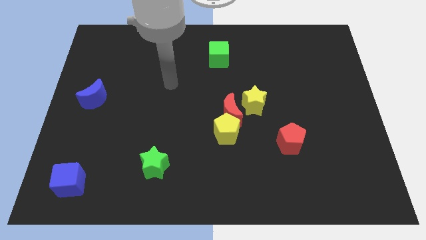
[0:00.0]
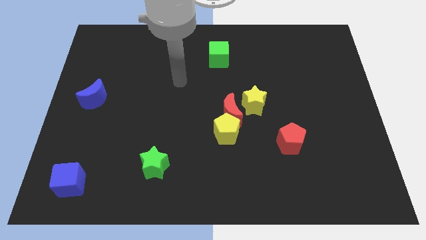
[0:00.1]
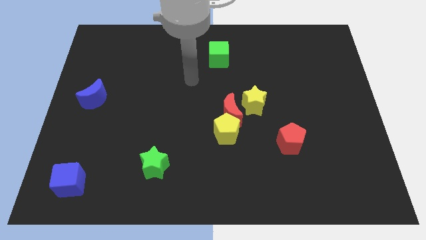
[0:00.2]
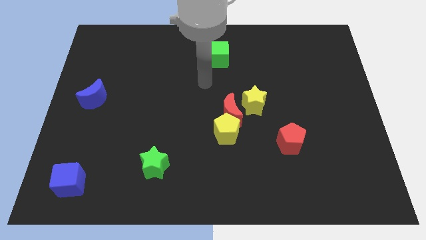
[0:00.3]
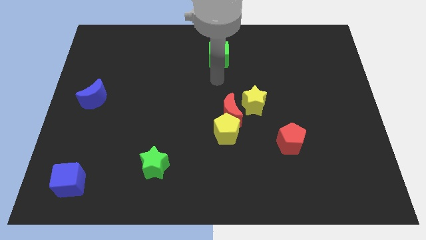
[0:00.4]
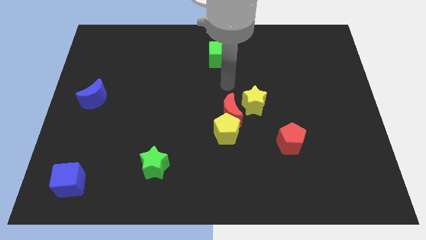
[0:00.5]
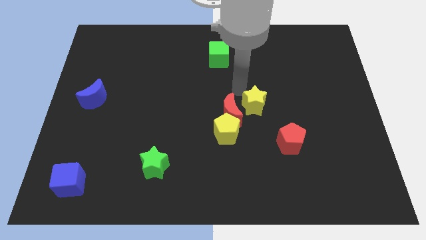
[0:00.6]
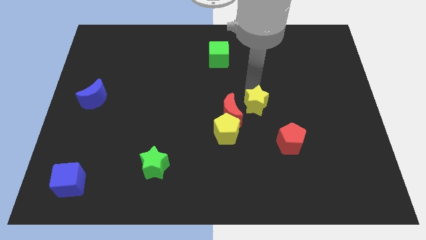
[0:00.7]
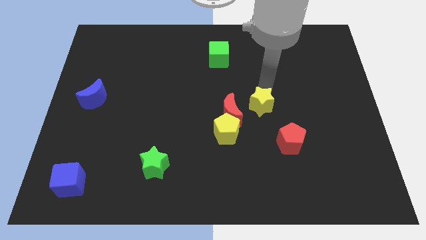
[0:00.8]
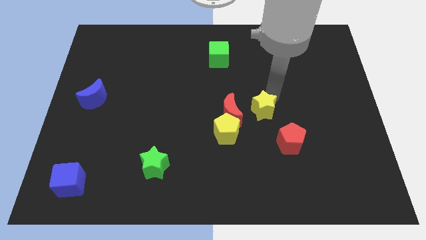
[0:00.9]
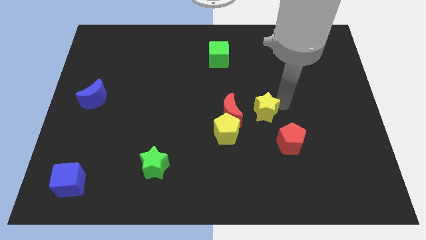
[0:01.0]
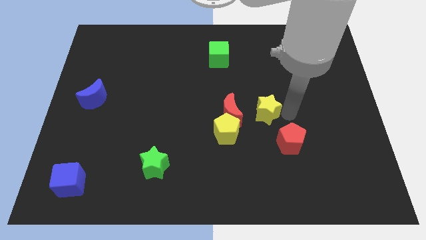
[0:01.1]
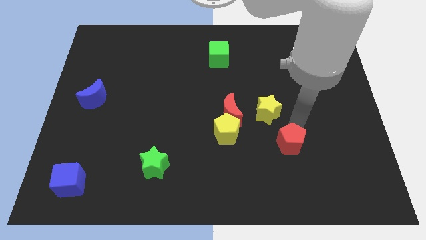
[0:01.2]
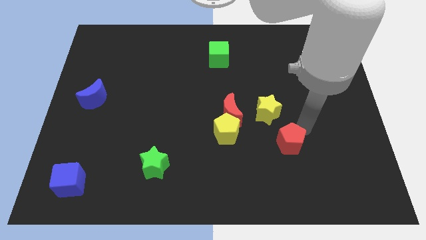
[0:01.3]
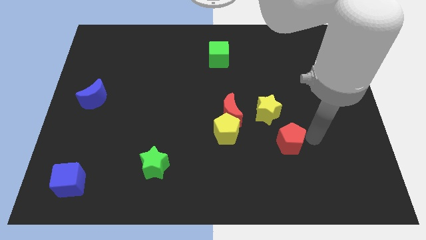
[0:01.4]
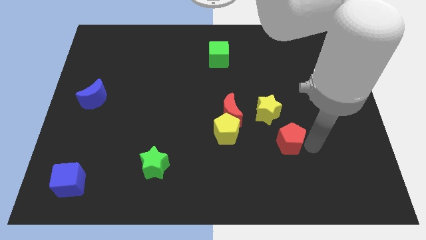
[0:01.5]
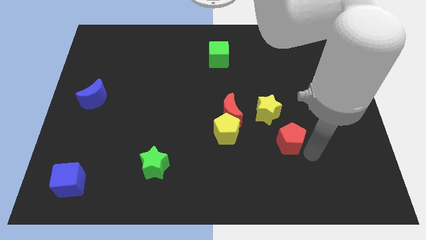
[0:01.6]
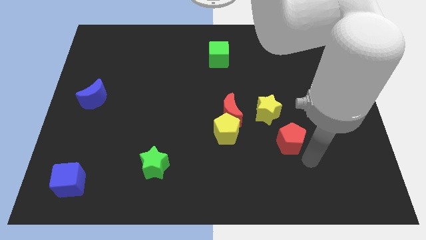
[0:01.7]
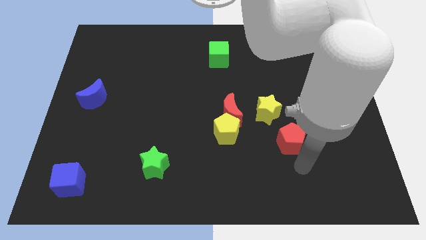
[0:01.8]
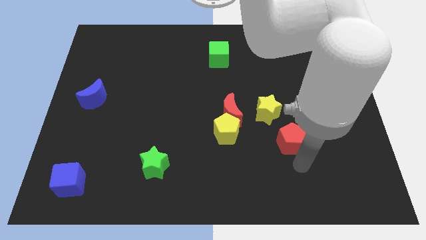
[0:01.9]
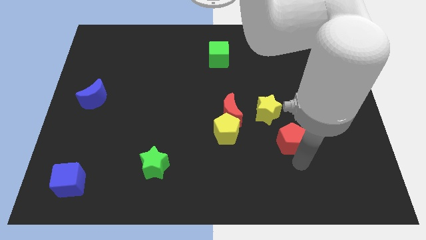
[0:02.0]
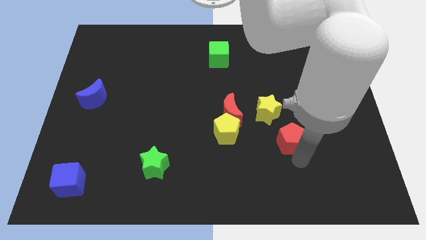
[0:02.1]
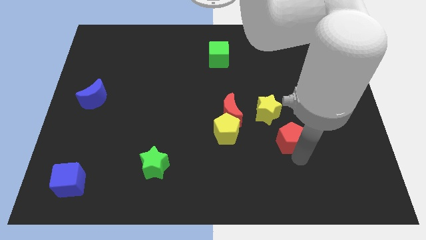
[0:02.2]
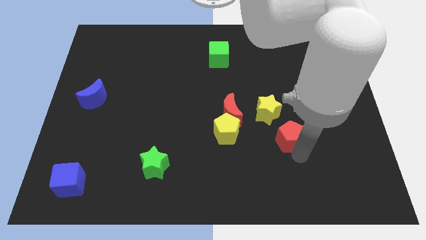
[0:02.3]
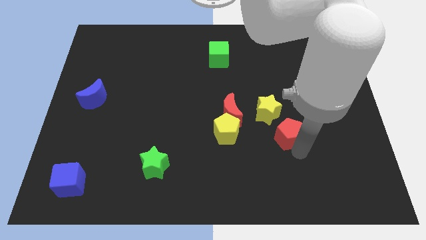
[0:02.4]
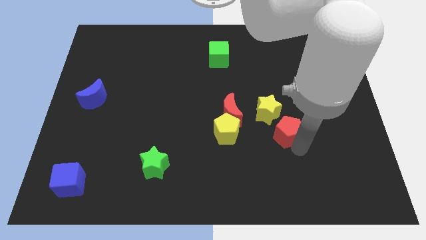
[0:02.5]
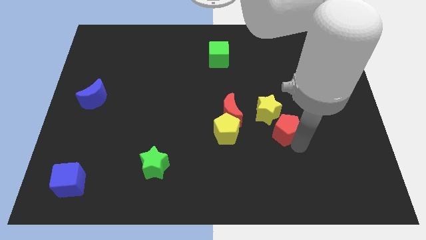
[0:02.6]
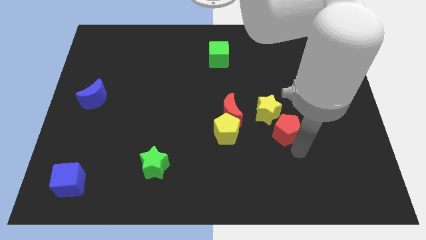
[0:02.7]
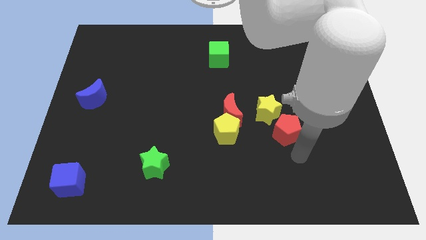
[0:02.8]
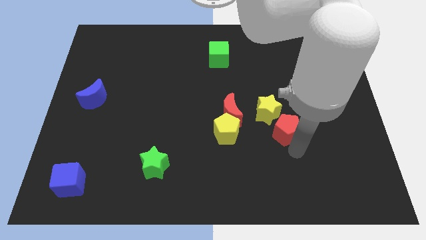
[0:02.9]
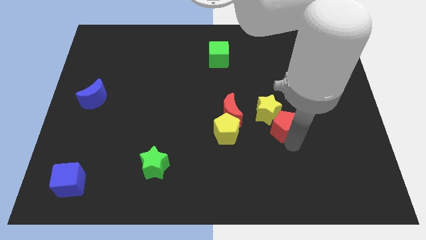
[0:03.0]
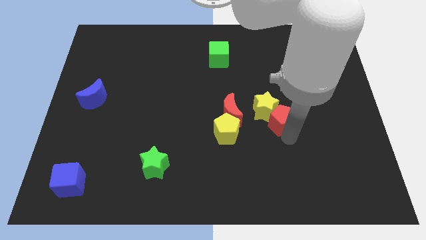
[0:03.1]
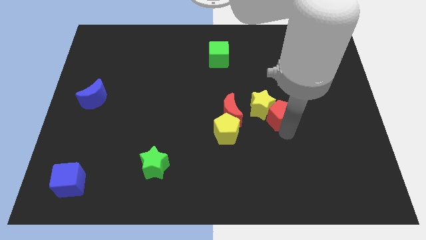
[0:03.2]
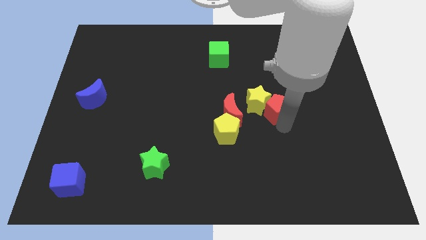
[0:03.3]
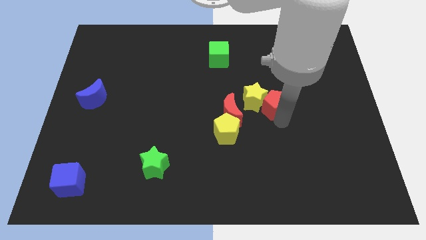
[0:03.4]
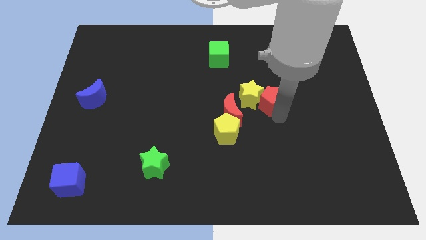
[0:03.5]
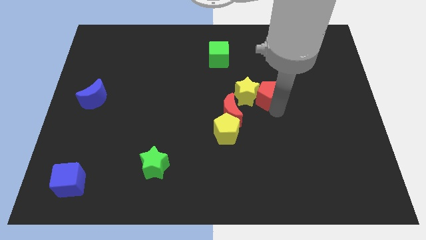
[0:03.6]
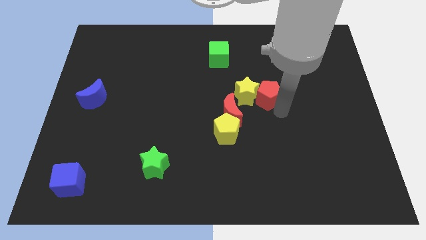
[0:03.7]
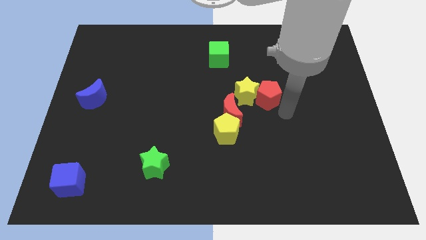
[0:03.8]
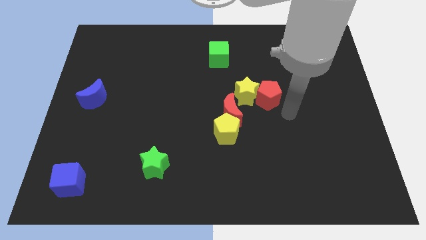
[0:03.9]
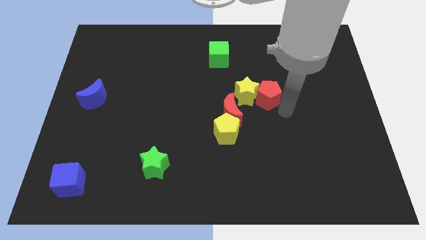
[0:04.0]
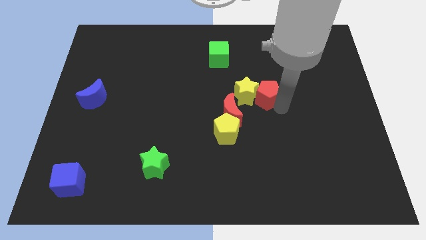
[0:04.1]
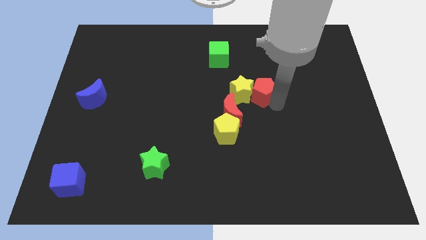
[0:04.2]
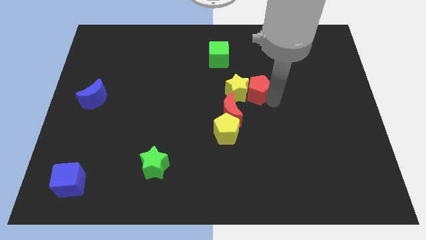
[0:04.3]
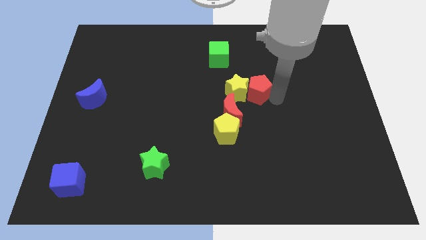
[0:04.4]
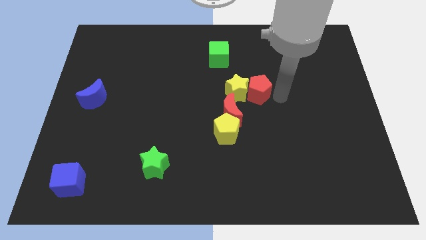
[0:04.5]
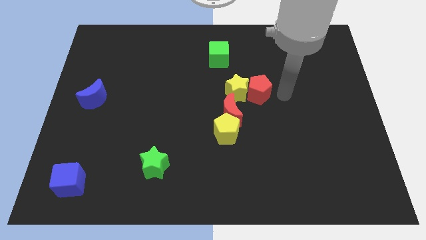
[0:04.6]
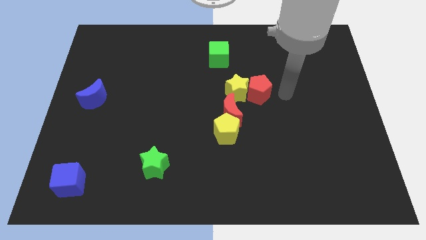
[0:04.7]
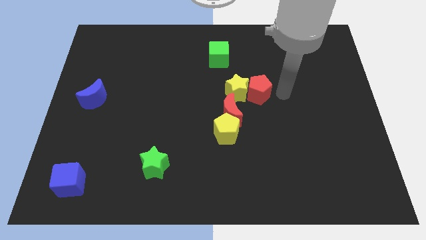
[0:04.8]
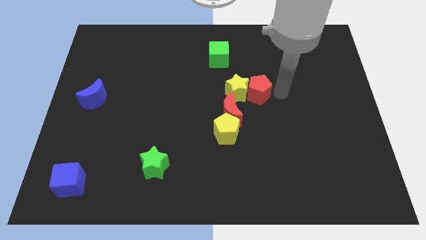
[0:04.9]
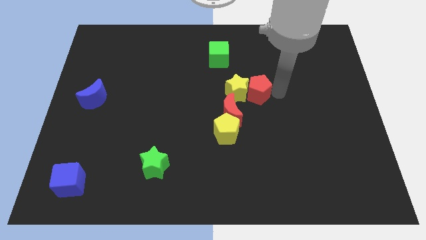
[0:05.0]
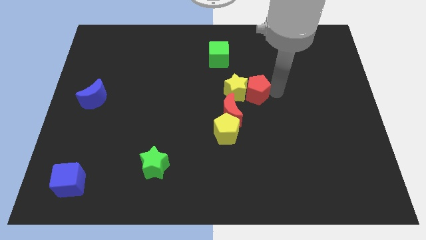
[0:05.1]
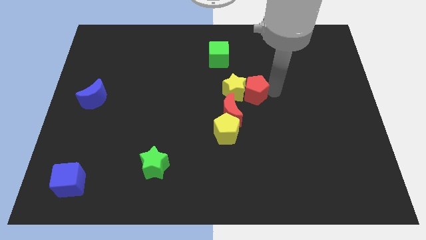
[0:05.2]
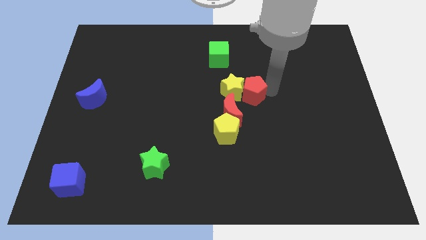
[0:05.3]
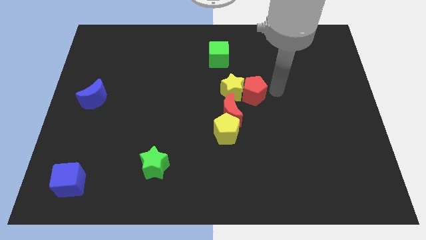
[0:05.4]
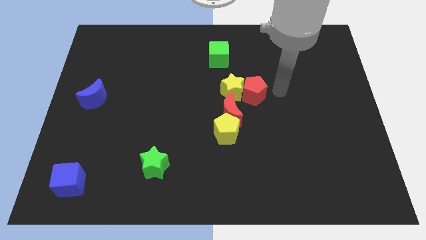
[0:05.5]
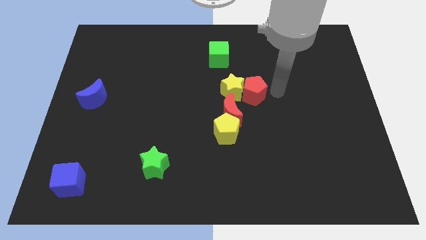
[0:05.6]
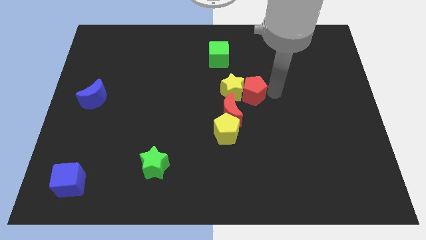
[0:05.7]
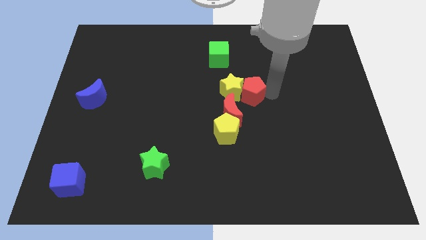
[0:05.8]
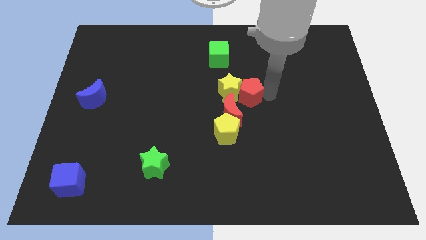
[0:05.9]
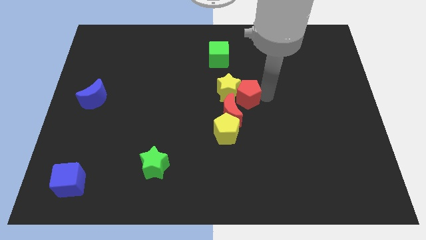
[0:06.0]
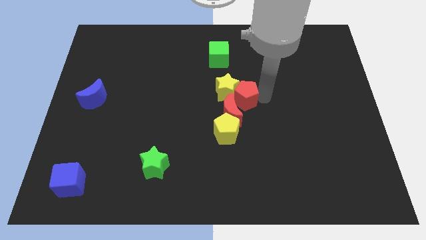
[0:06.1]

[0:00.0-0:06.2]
move the red pentagon to the top side of the yellow pentagon
